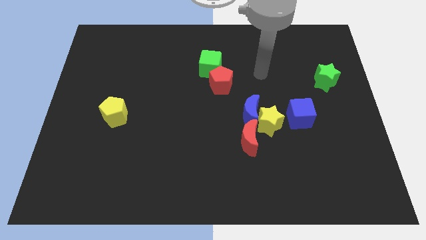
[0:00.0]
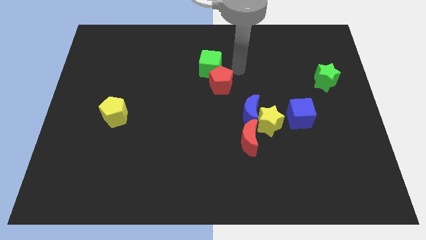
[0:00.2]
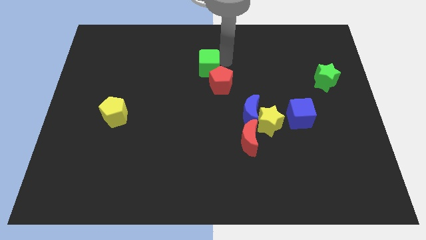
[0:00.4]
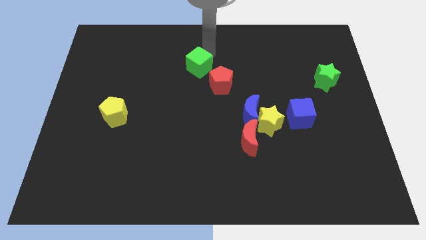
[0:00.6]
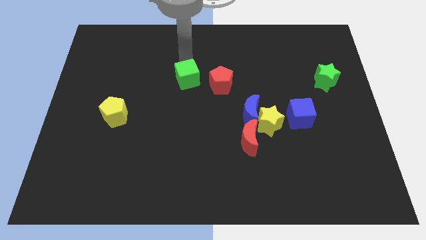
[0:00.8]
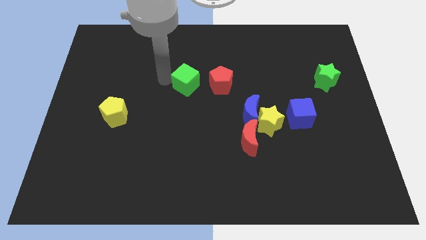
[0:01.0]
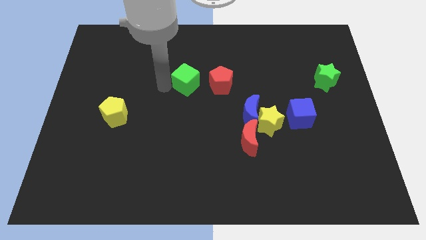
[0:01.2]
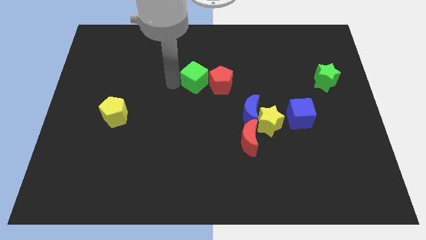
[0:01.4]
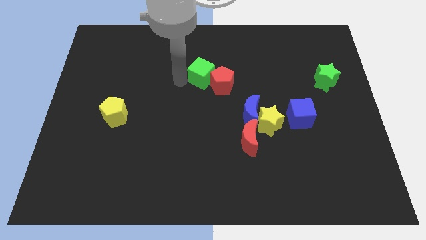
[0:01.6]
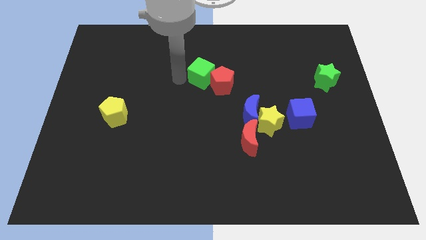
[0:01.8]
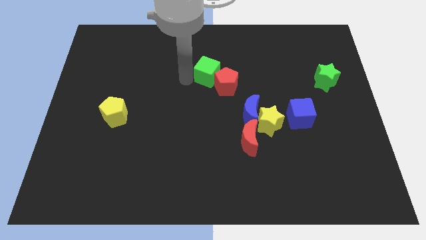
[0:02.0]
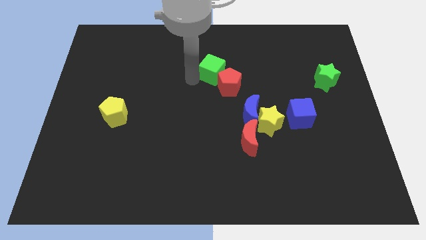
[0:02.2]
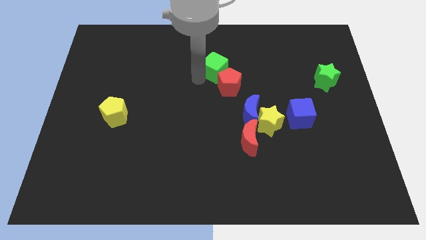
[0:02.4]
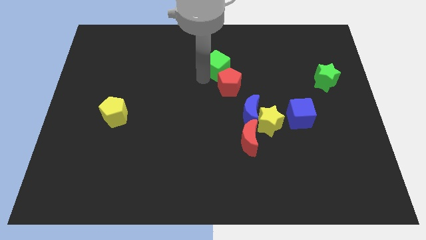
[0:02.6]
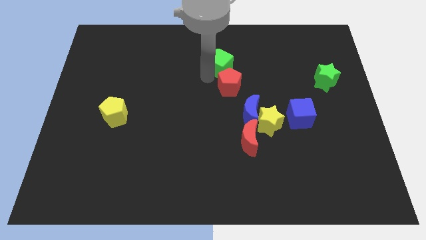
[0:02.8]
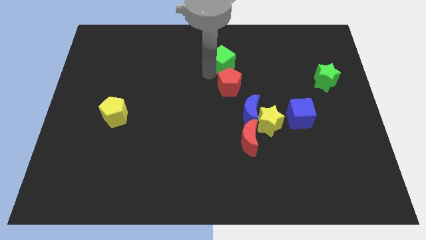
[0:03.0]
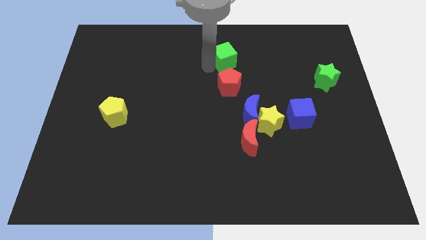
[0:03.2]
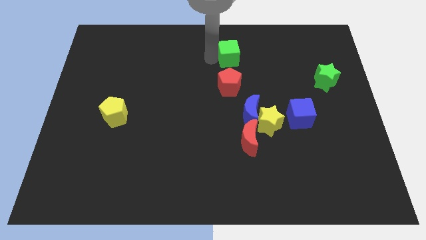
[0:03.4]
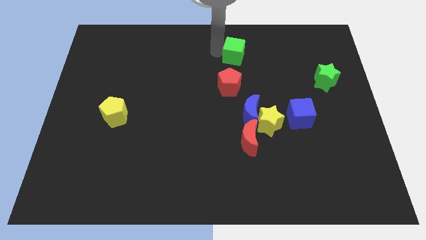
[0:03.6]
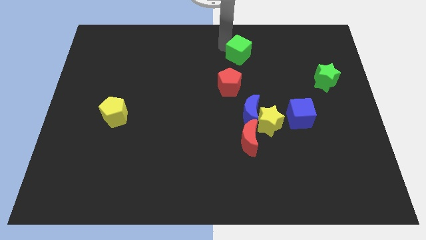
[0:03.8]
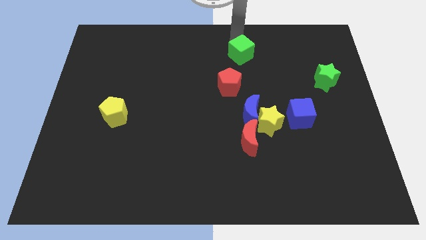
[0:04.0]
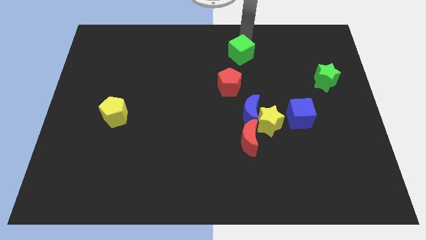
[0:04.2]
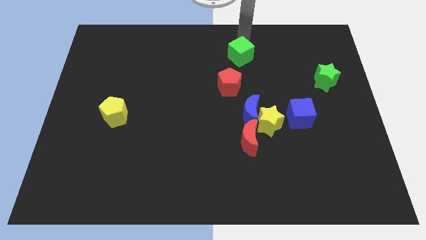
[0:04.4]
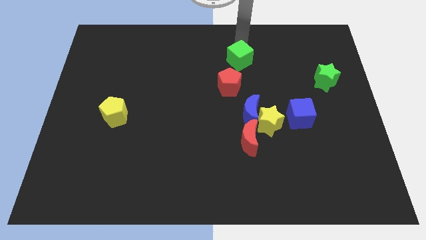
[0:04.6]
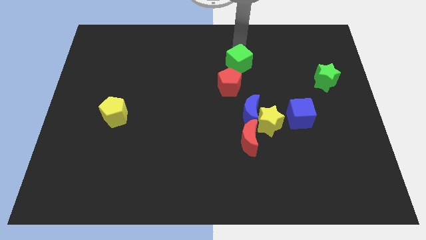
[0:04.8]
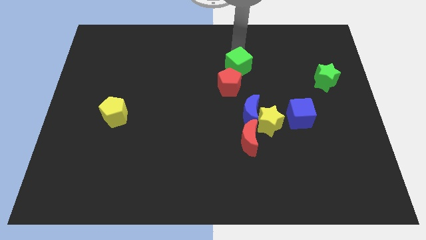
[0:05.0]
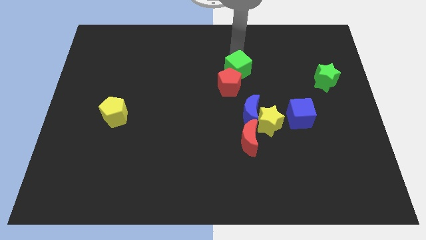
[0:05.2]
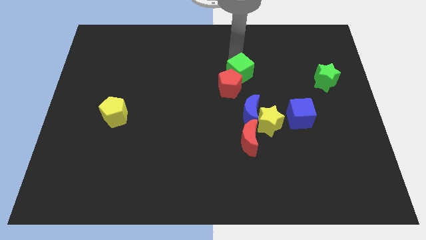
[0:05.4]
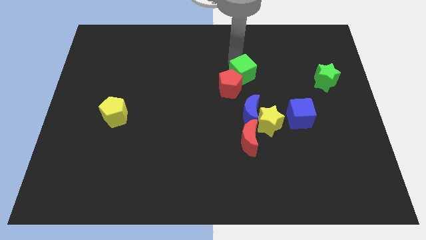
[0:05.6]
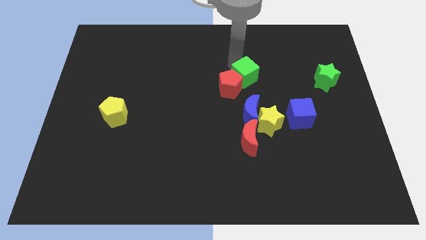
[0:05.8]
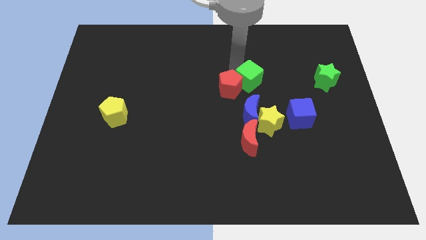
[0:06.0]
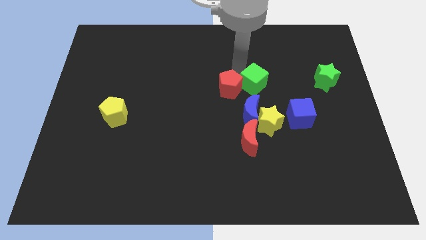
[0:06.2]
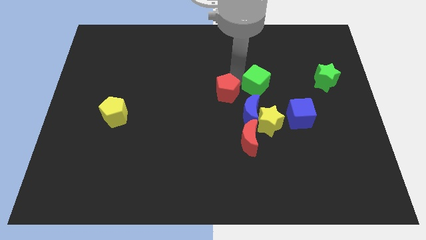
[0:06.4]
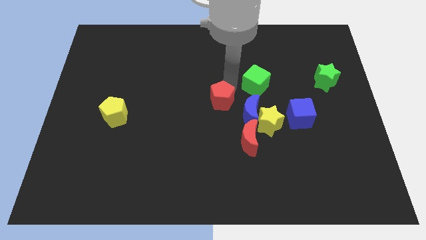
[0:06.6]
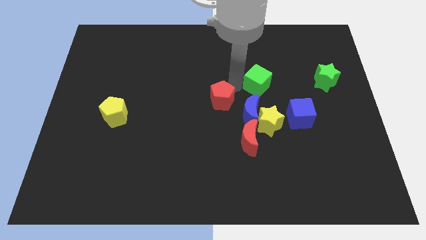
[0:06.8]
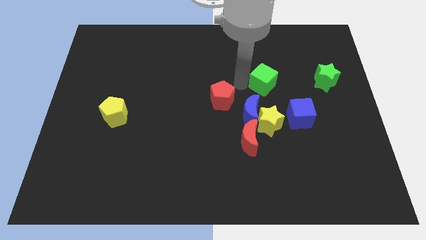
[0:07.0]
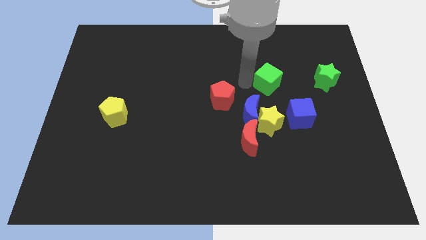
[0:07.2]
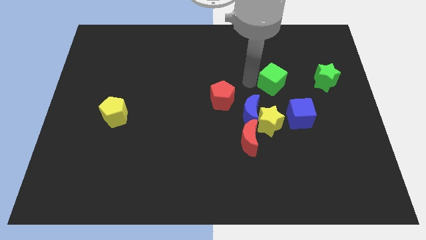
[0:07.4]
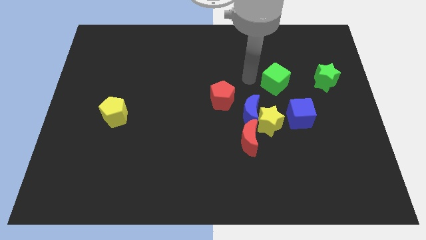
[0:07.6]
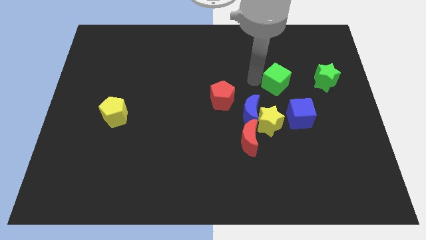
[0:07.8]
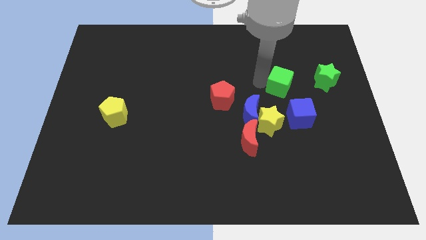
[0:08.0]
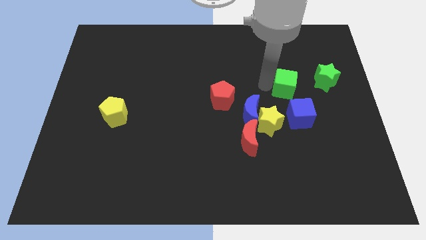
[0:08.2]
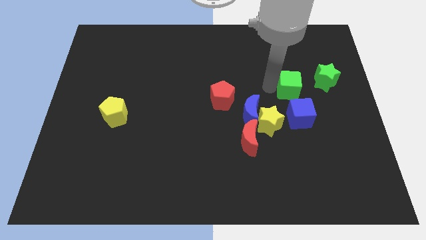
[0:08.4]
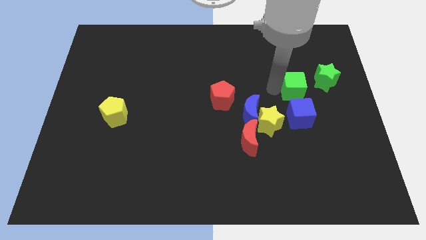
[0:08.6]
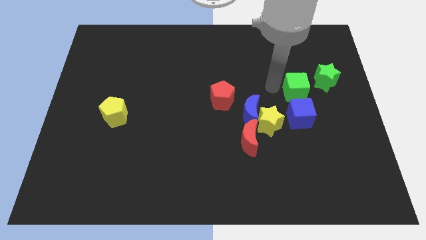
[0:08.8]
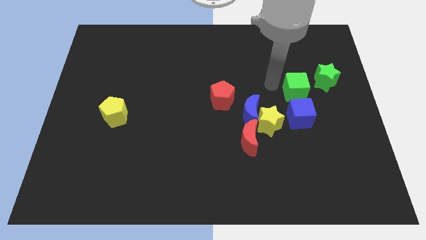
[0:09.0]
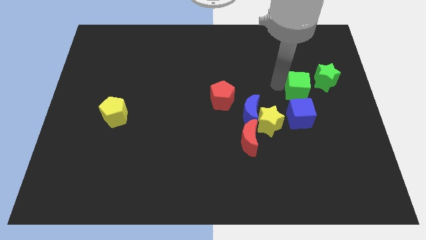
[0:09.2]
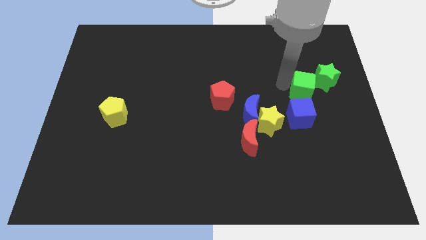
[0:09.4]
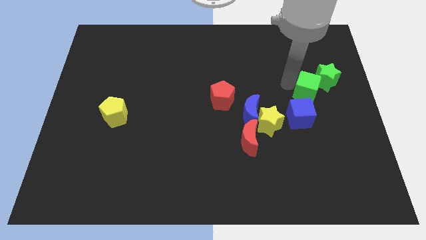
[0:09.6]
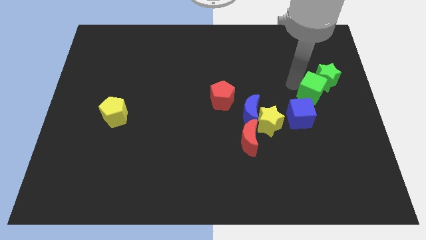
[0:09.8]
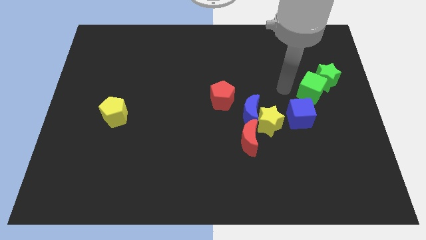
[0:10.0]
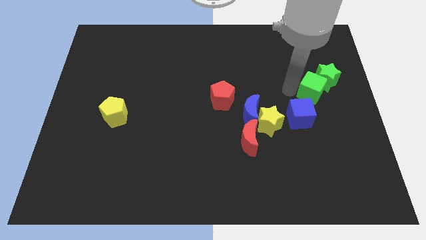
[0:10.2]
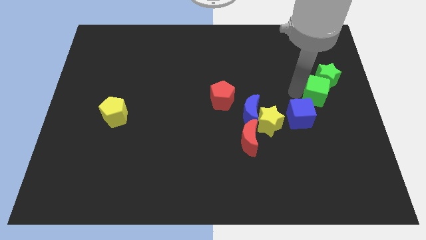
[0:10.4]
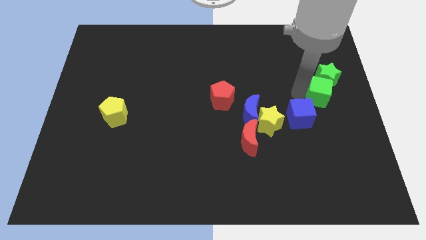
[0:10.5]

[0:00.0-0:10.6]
put the green cube to the right side of the board

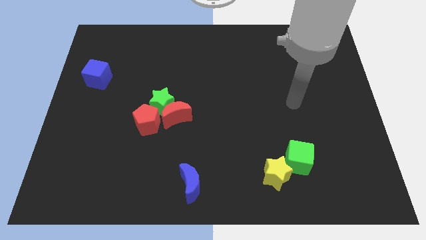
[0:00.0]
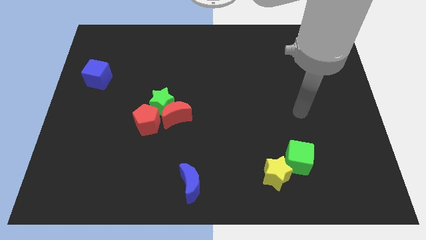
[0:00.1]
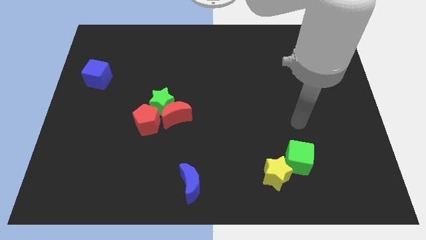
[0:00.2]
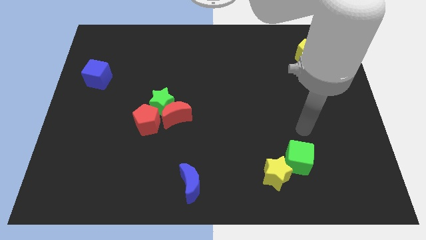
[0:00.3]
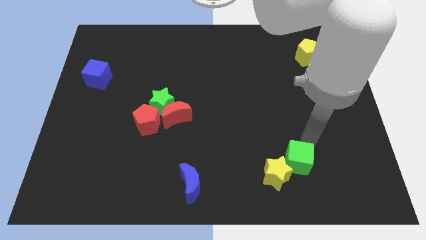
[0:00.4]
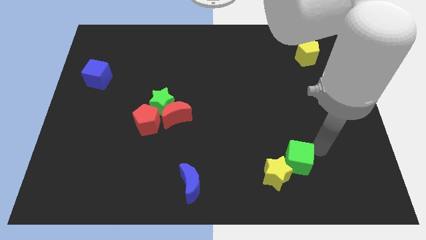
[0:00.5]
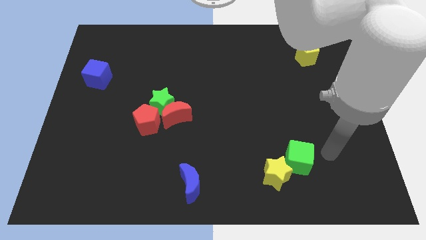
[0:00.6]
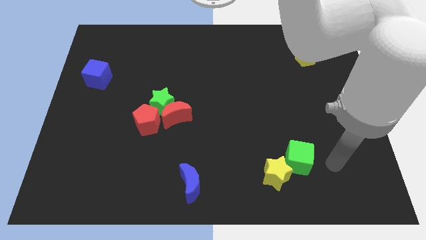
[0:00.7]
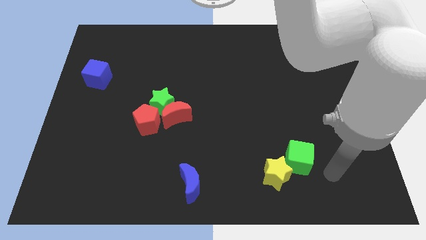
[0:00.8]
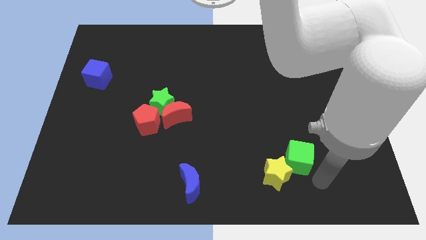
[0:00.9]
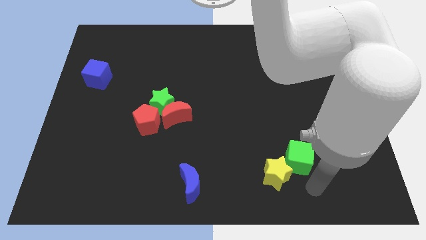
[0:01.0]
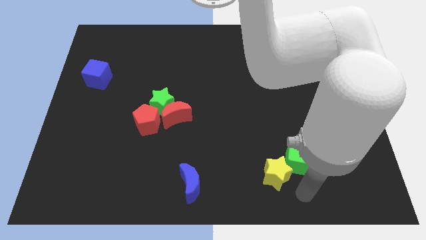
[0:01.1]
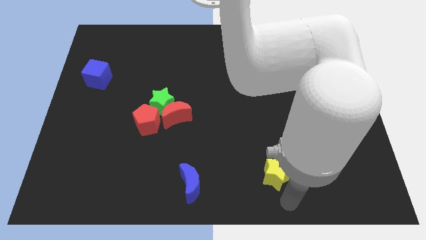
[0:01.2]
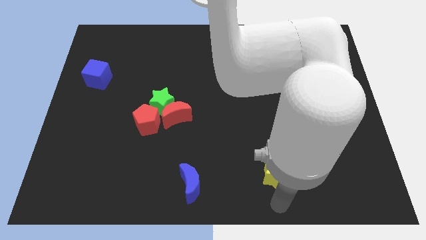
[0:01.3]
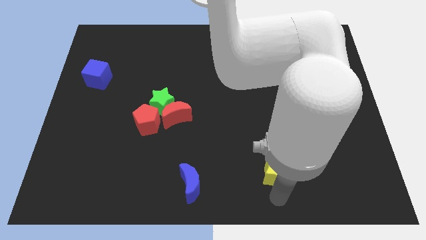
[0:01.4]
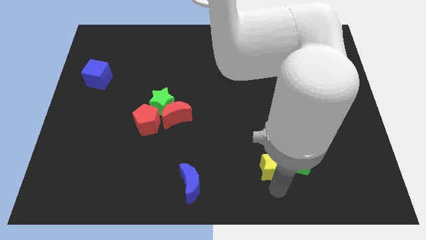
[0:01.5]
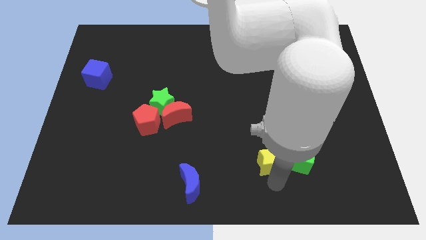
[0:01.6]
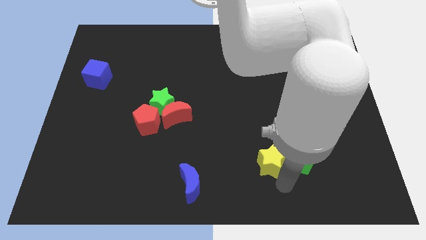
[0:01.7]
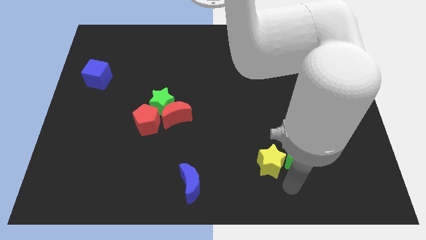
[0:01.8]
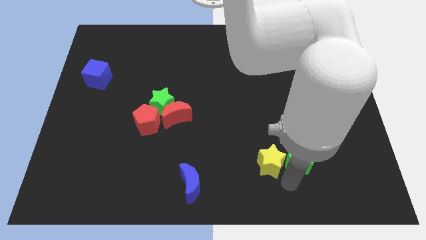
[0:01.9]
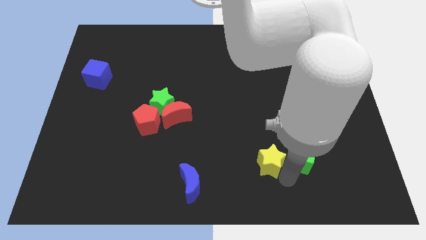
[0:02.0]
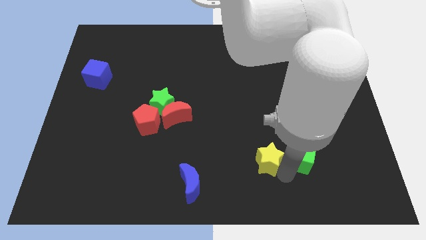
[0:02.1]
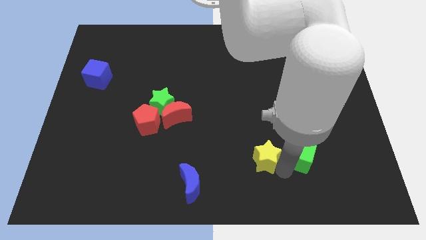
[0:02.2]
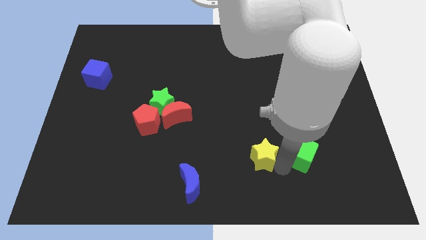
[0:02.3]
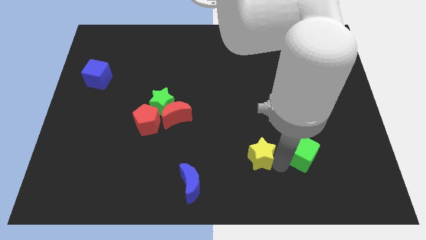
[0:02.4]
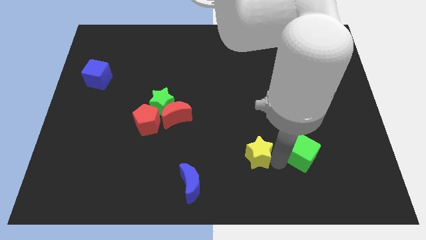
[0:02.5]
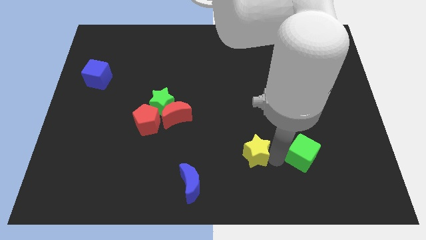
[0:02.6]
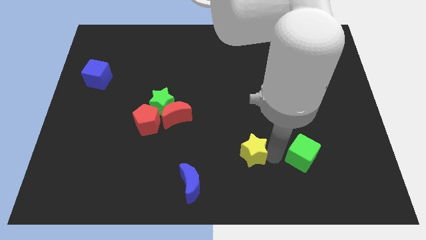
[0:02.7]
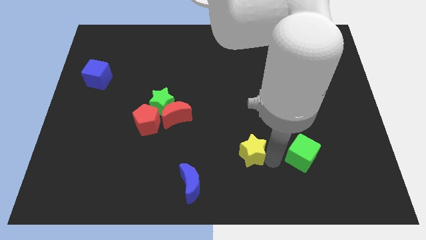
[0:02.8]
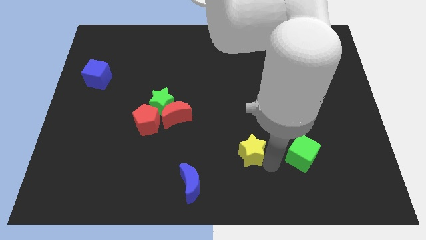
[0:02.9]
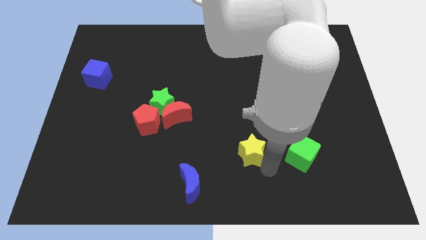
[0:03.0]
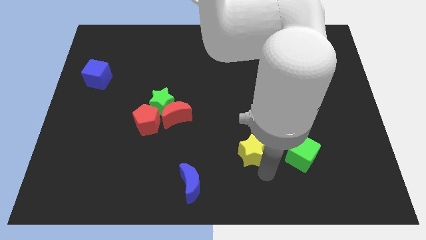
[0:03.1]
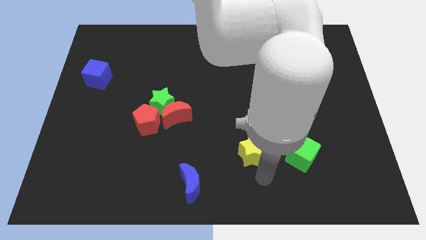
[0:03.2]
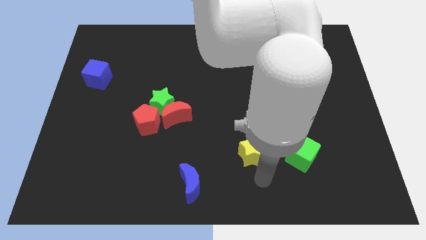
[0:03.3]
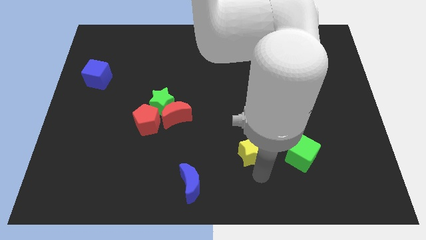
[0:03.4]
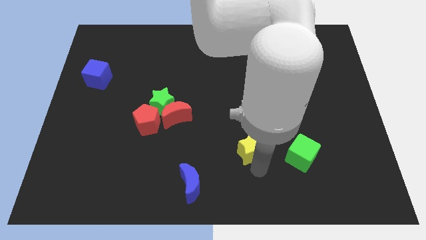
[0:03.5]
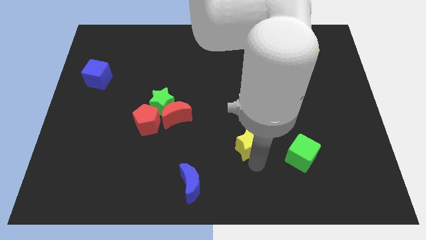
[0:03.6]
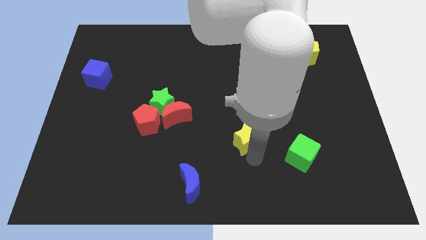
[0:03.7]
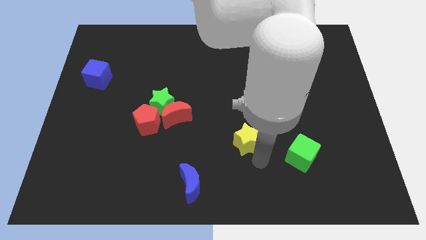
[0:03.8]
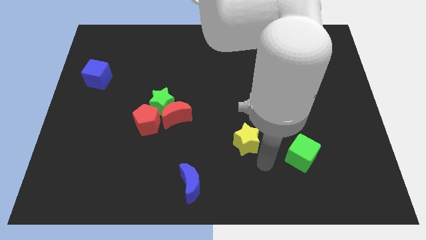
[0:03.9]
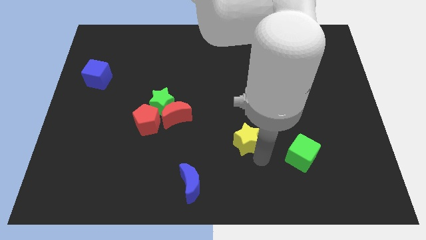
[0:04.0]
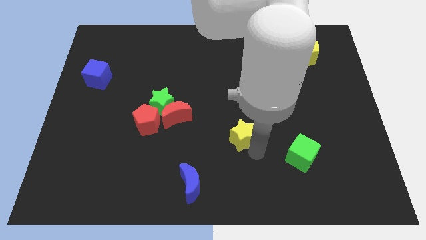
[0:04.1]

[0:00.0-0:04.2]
move the yellow star to the middle
